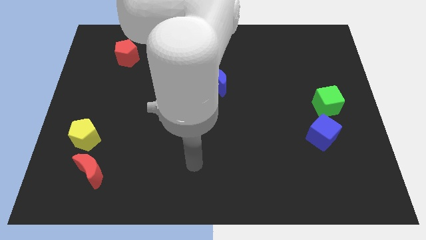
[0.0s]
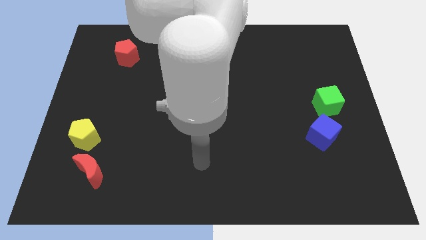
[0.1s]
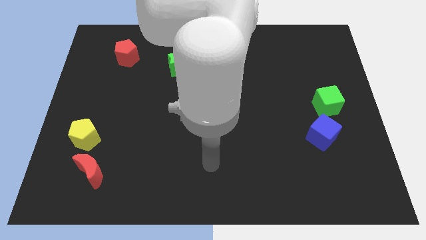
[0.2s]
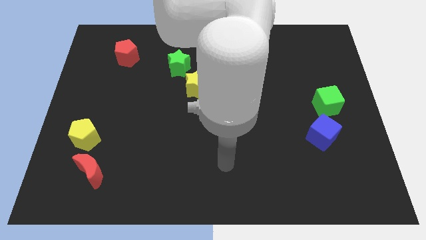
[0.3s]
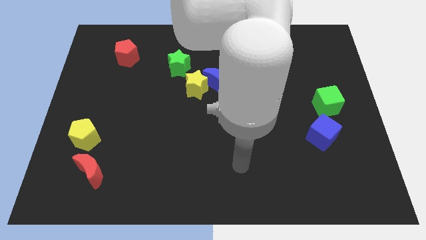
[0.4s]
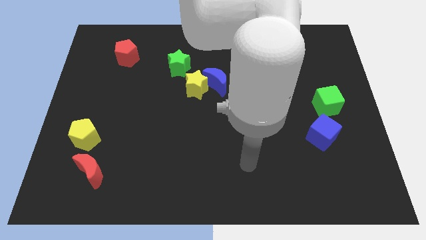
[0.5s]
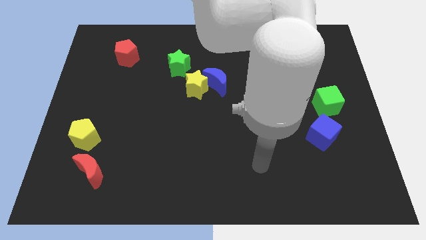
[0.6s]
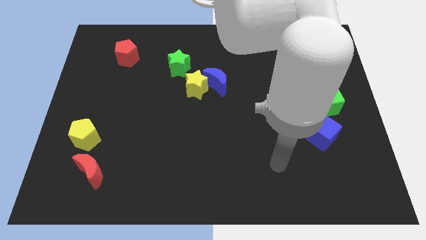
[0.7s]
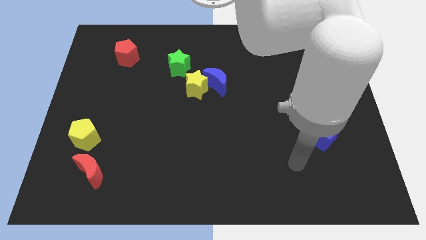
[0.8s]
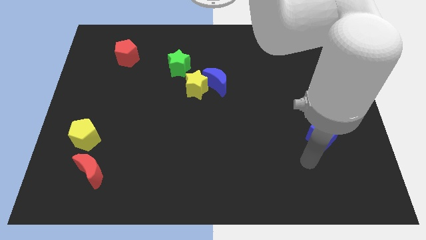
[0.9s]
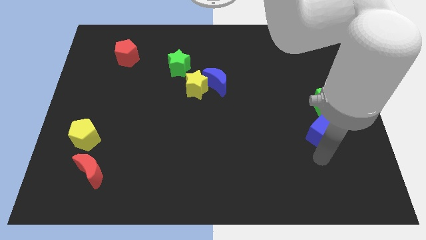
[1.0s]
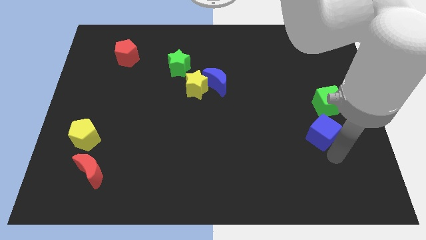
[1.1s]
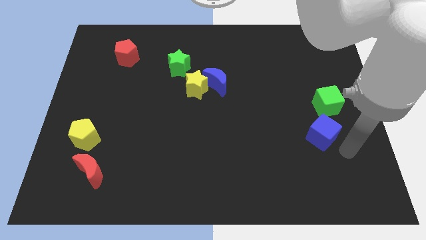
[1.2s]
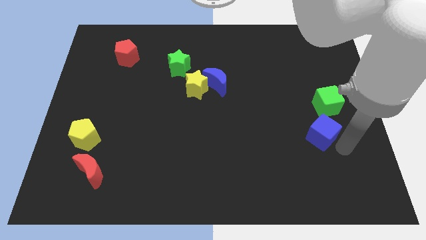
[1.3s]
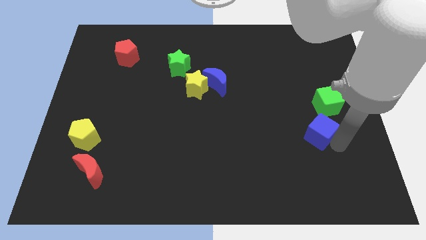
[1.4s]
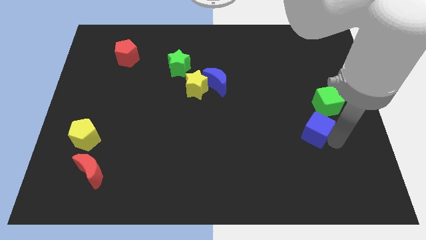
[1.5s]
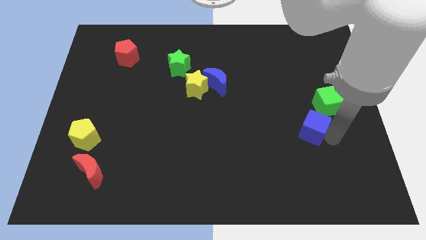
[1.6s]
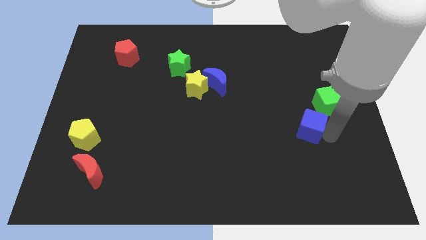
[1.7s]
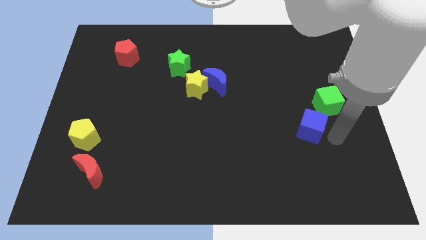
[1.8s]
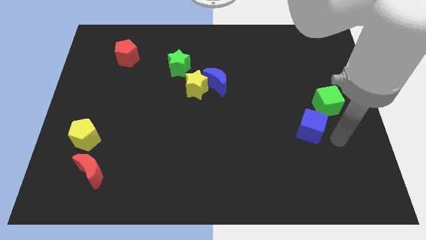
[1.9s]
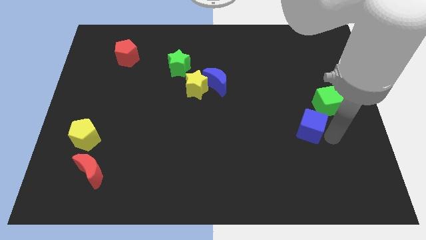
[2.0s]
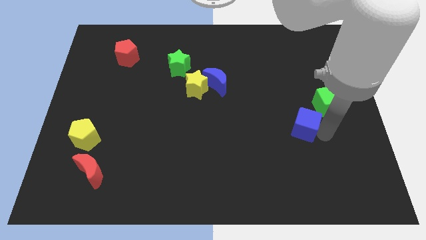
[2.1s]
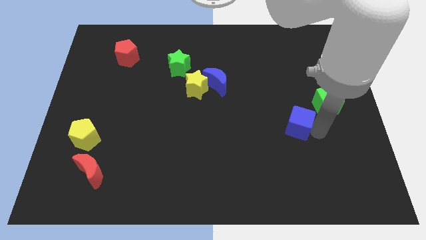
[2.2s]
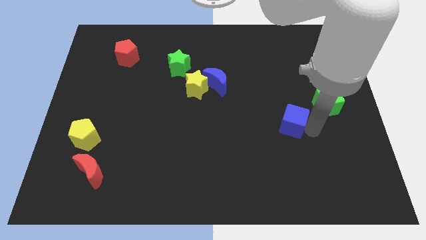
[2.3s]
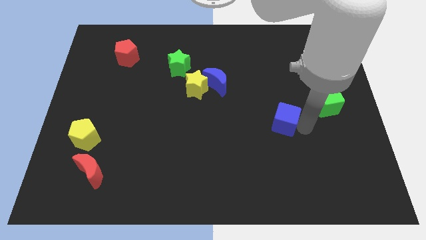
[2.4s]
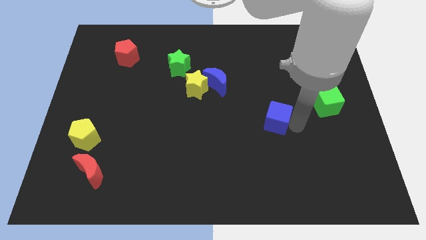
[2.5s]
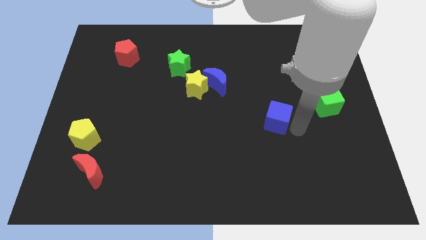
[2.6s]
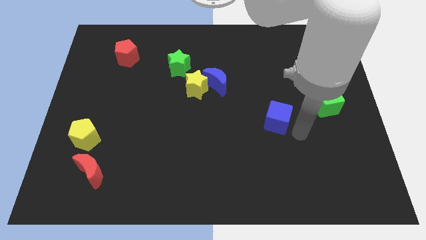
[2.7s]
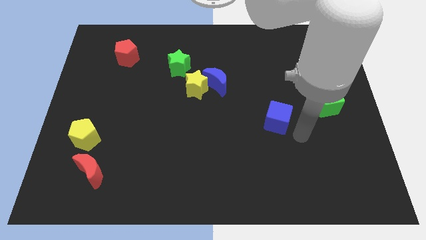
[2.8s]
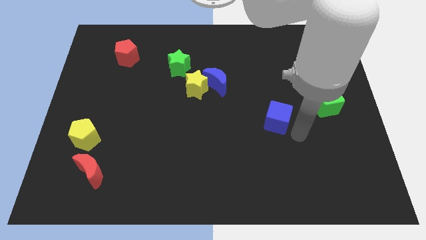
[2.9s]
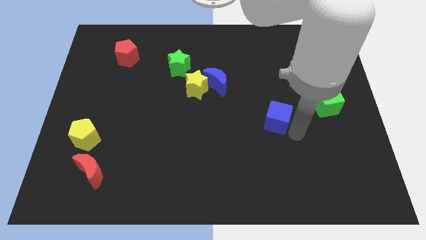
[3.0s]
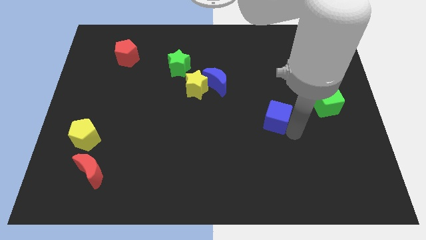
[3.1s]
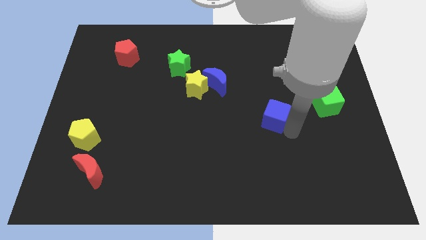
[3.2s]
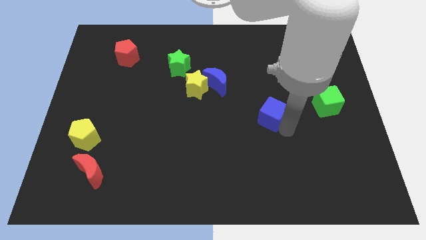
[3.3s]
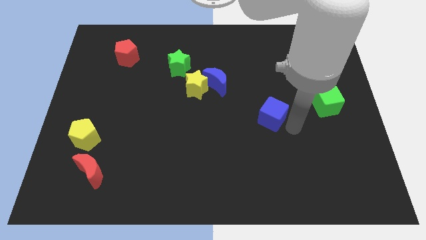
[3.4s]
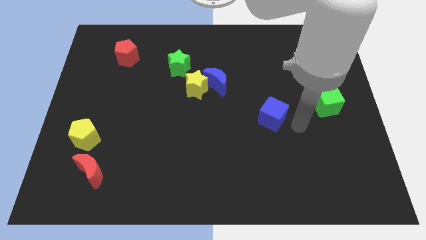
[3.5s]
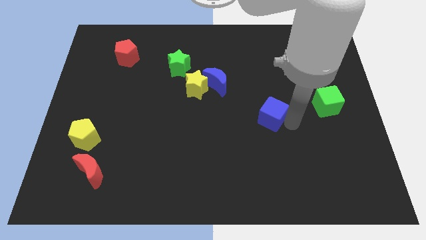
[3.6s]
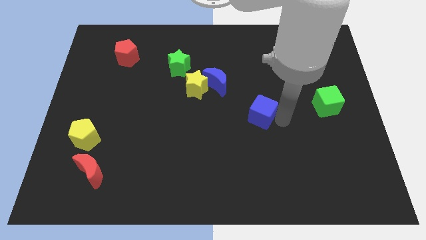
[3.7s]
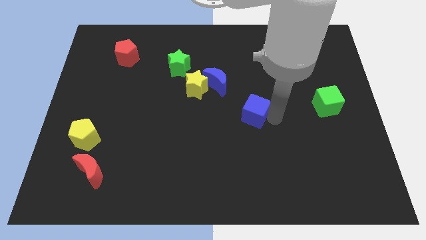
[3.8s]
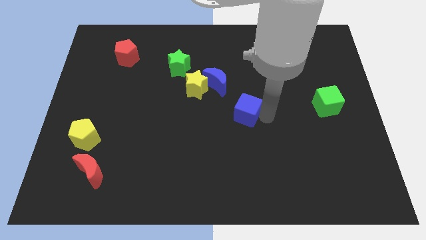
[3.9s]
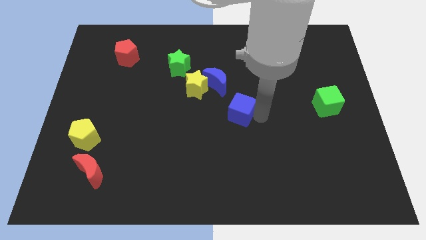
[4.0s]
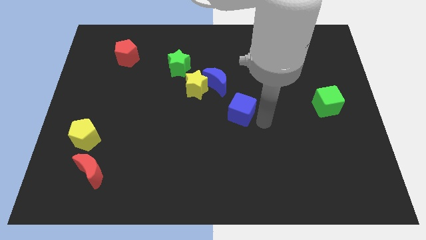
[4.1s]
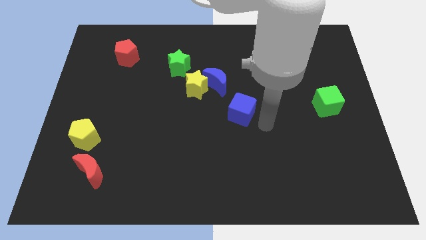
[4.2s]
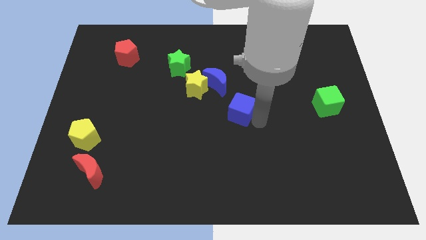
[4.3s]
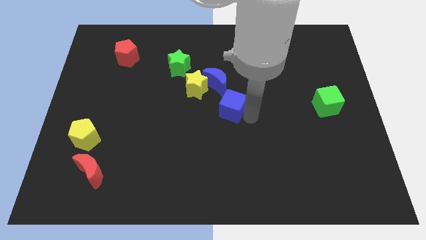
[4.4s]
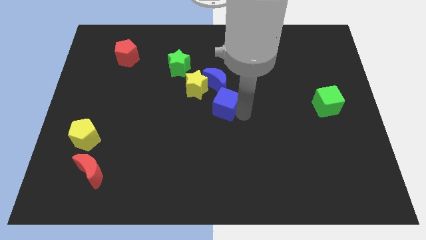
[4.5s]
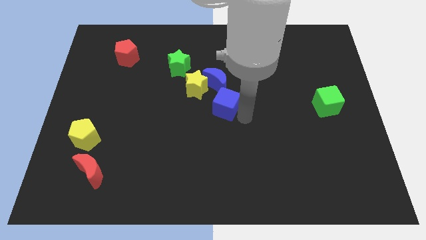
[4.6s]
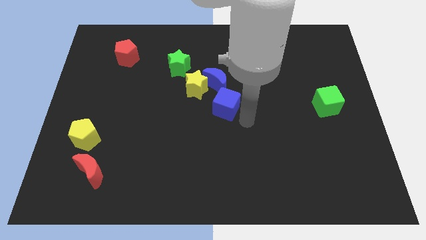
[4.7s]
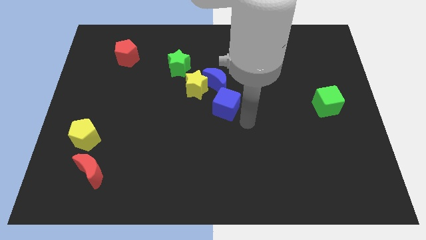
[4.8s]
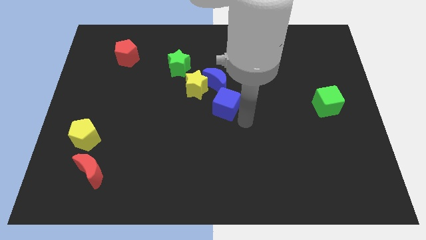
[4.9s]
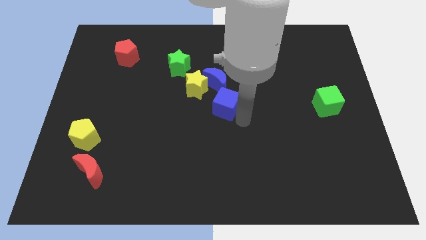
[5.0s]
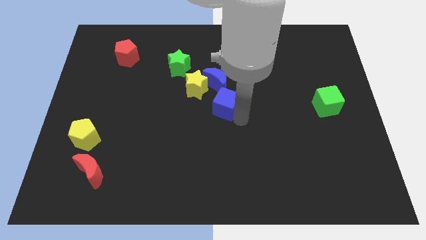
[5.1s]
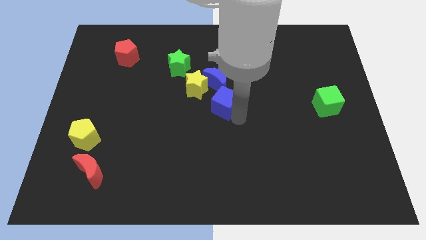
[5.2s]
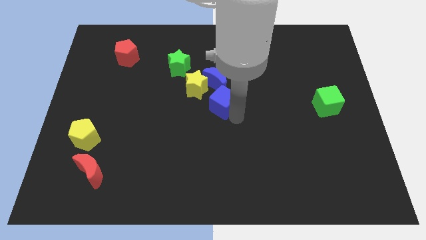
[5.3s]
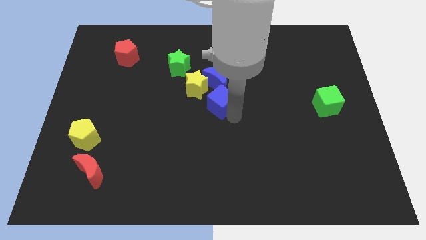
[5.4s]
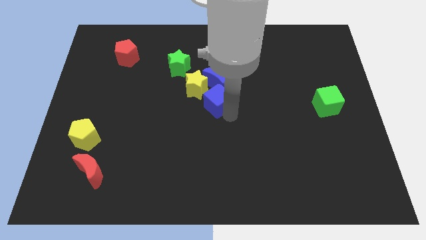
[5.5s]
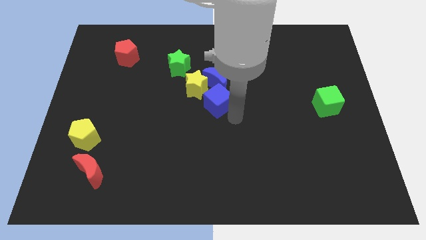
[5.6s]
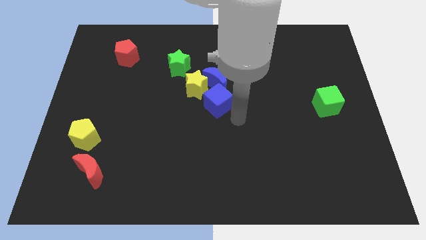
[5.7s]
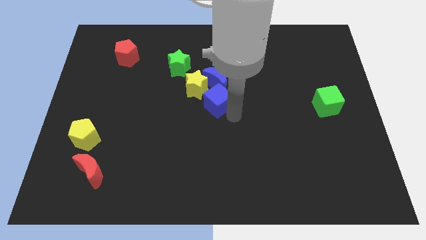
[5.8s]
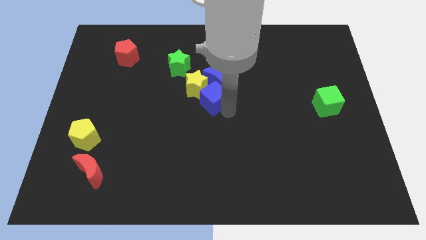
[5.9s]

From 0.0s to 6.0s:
move the blue cube to the yellow star

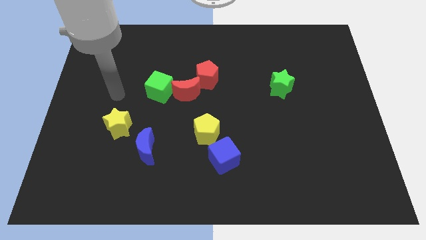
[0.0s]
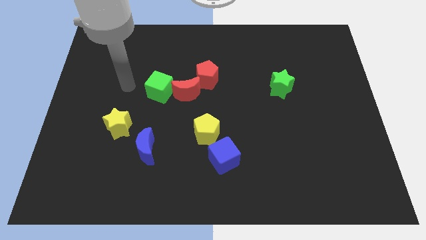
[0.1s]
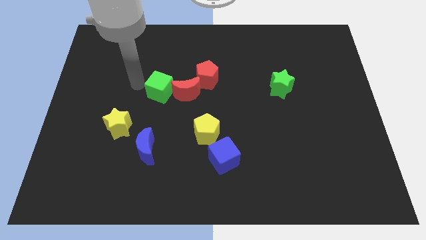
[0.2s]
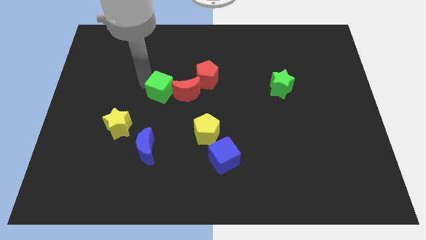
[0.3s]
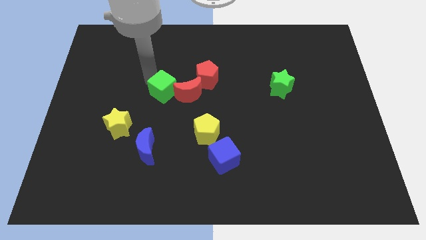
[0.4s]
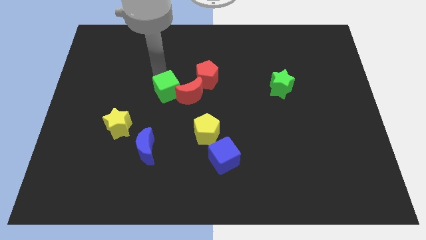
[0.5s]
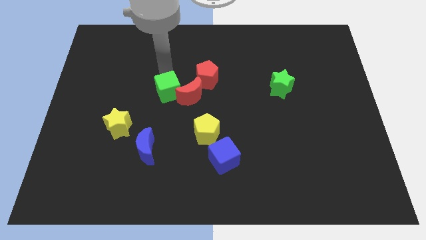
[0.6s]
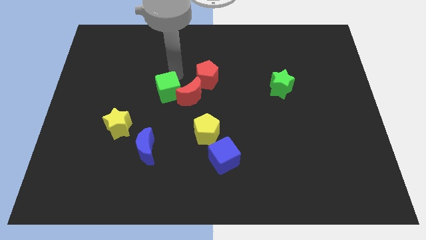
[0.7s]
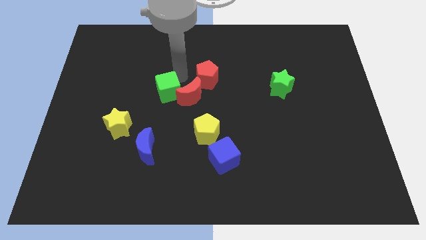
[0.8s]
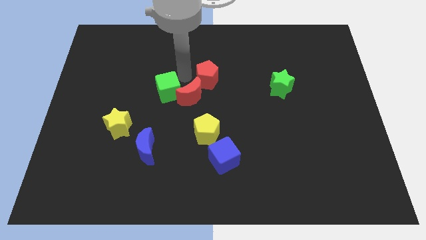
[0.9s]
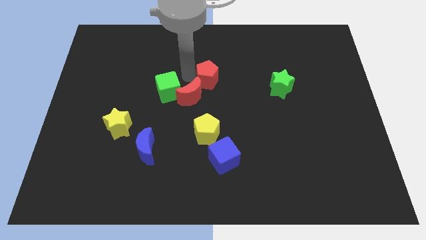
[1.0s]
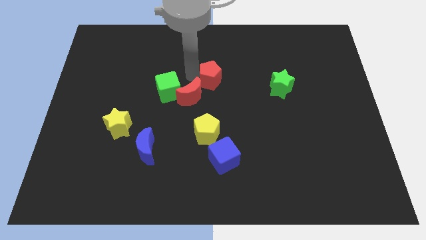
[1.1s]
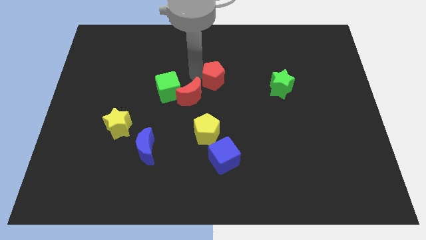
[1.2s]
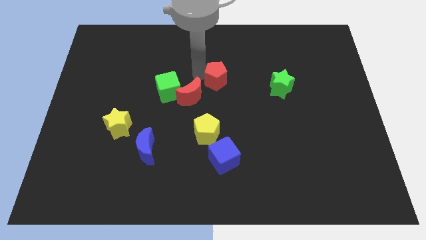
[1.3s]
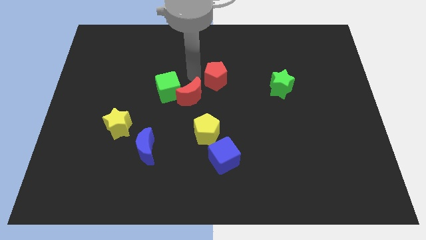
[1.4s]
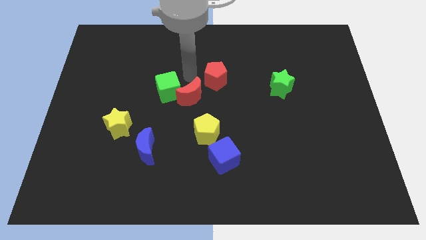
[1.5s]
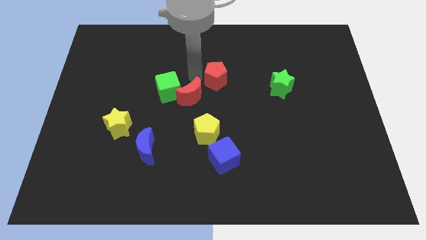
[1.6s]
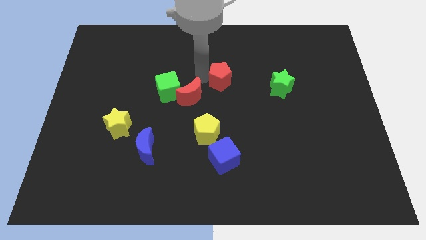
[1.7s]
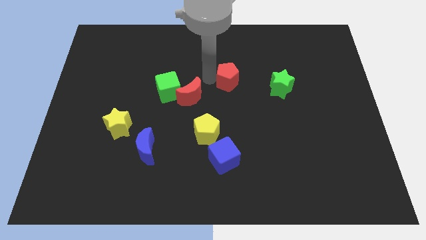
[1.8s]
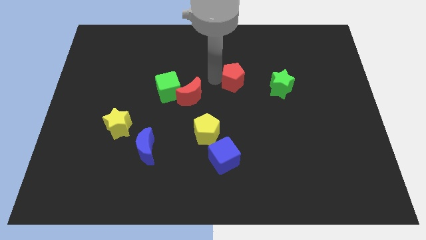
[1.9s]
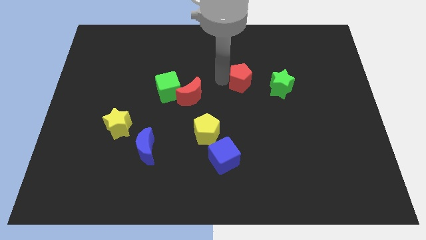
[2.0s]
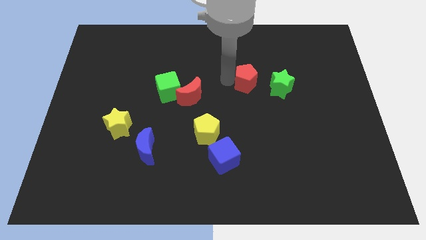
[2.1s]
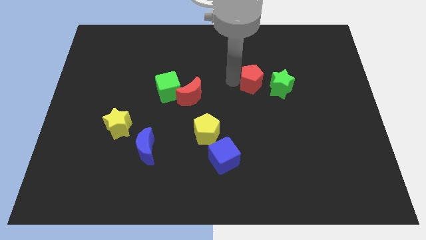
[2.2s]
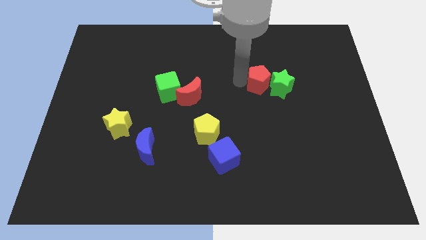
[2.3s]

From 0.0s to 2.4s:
slide the red pentagon towards the green star
